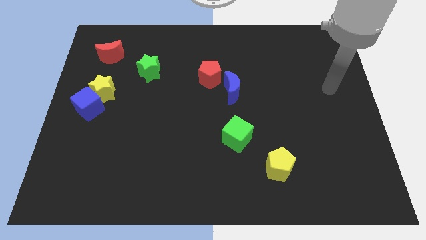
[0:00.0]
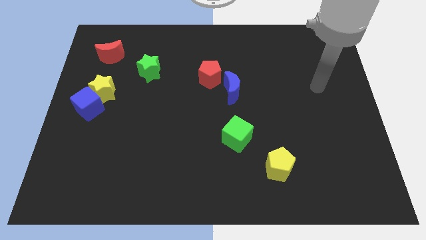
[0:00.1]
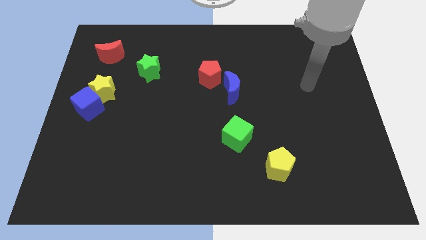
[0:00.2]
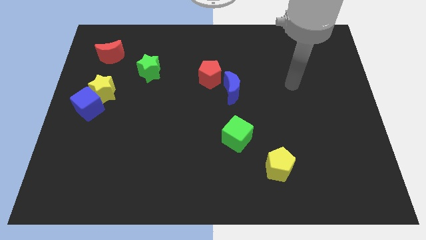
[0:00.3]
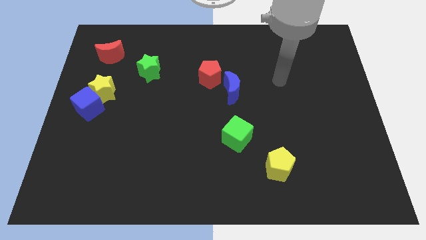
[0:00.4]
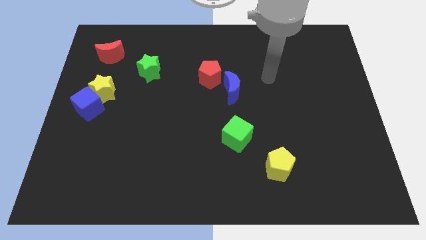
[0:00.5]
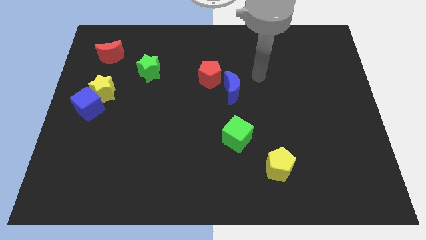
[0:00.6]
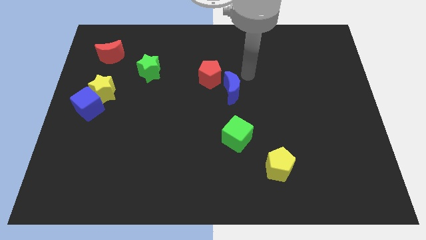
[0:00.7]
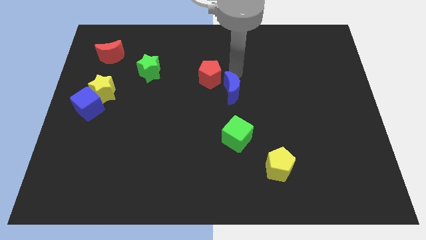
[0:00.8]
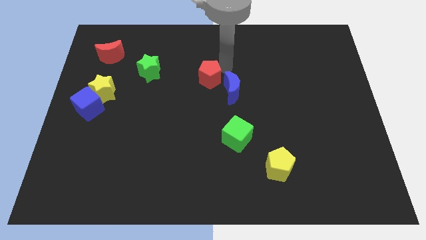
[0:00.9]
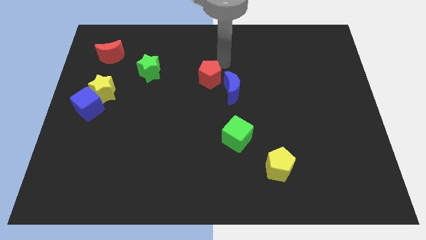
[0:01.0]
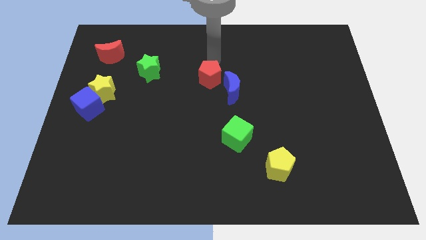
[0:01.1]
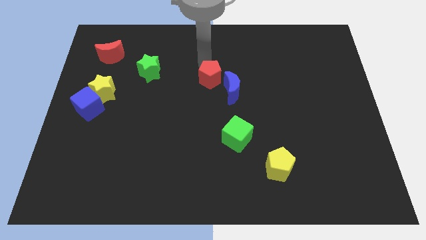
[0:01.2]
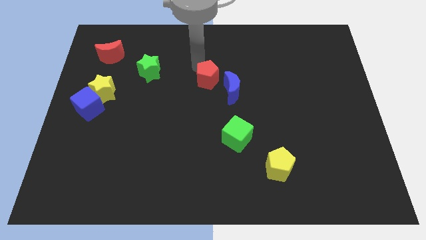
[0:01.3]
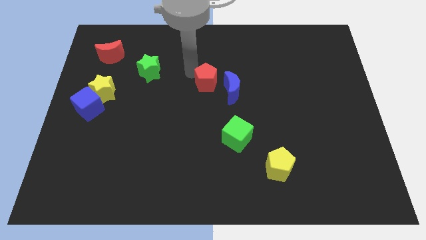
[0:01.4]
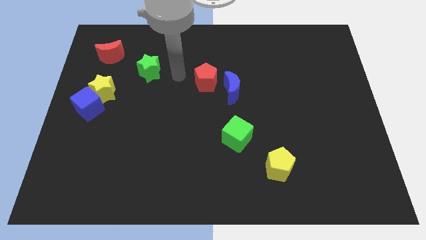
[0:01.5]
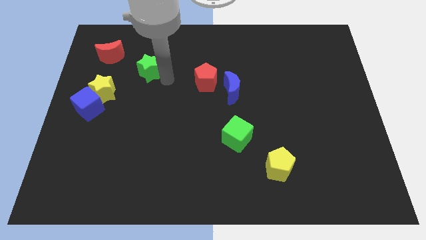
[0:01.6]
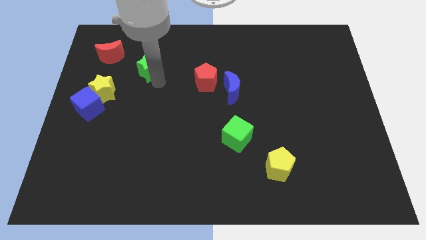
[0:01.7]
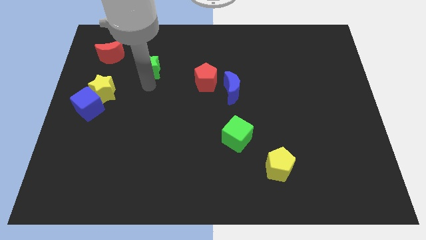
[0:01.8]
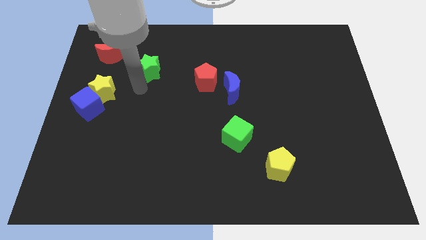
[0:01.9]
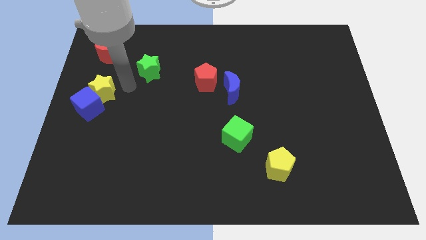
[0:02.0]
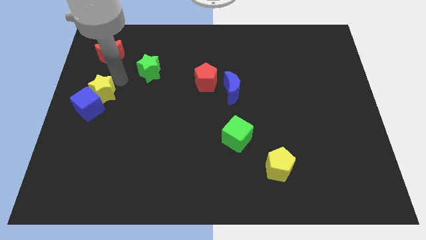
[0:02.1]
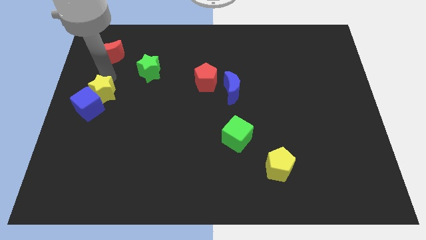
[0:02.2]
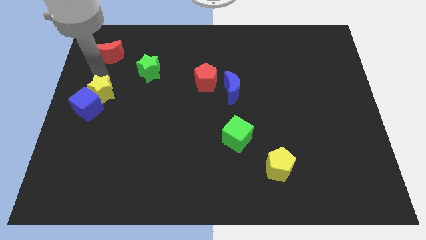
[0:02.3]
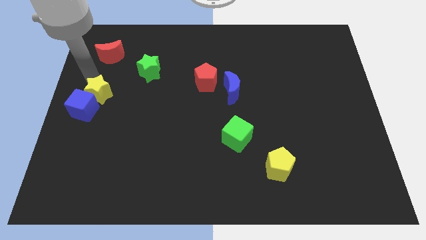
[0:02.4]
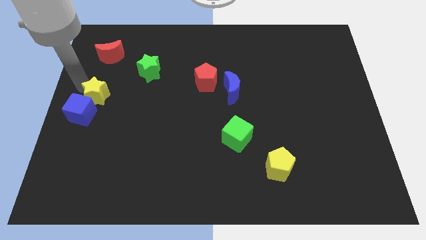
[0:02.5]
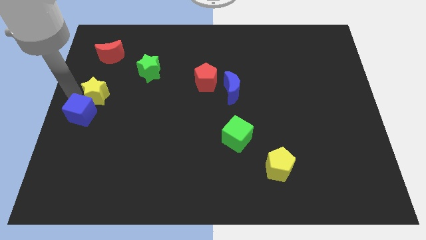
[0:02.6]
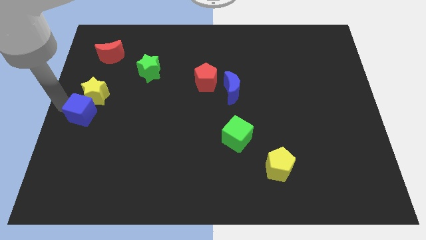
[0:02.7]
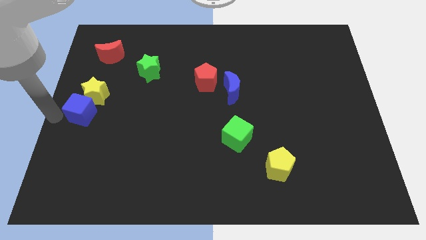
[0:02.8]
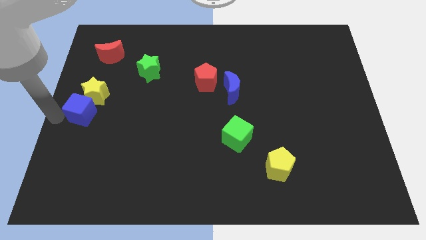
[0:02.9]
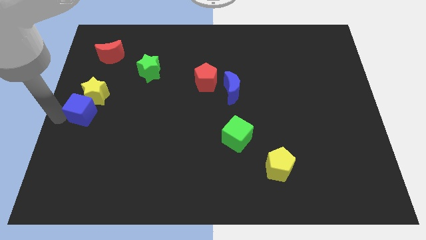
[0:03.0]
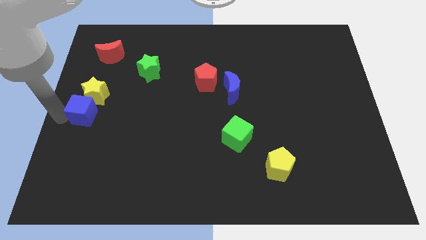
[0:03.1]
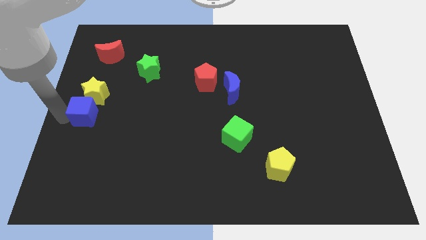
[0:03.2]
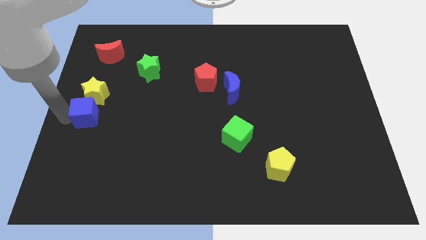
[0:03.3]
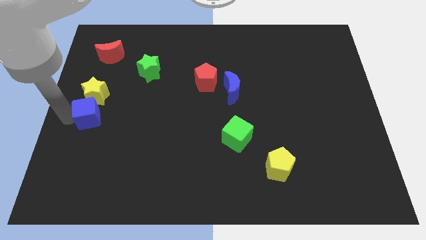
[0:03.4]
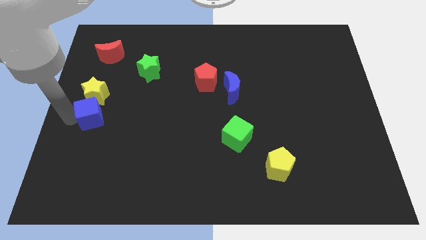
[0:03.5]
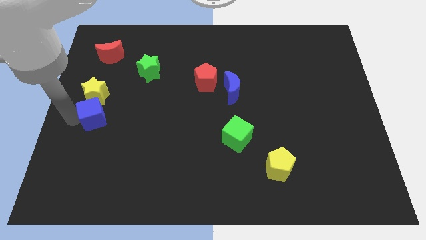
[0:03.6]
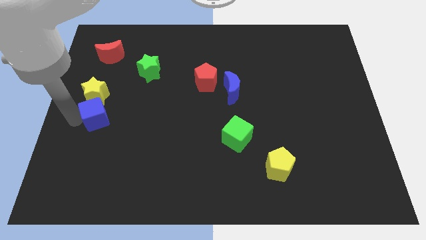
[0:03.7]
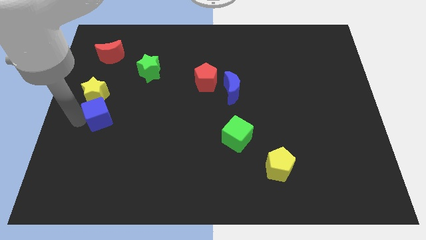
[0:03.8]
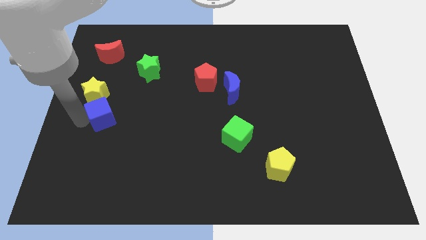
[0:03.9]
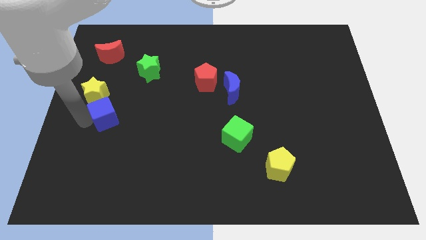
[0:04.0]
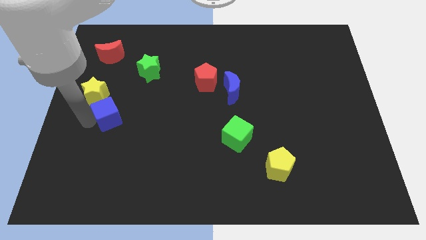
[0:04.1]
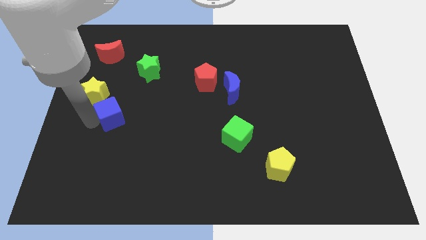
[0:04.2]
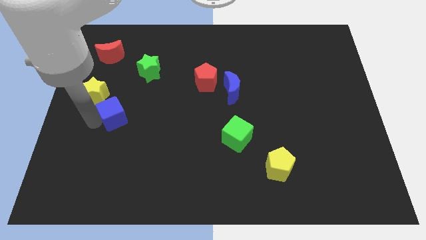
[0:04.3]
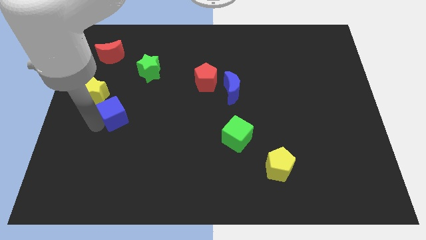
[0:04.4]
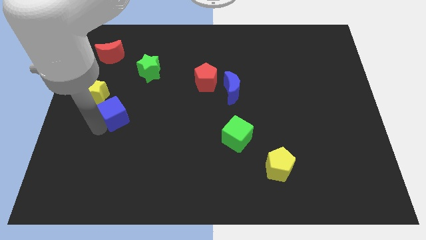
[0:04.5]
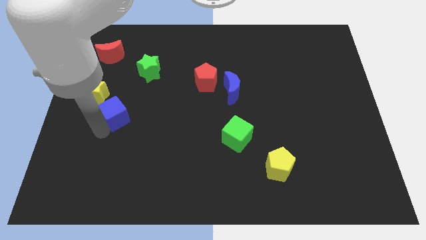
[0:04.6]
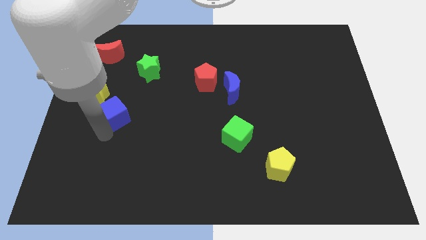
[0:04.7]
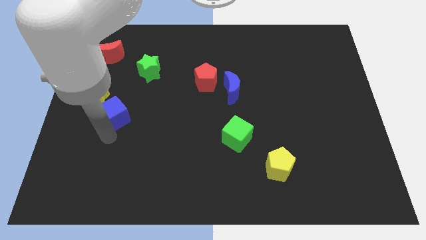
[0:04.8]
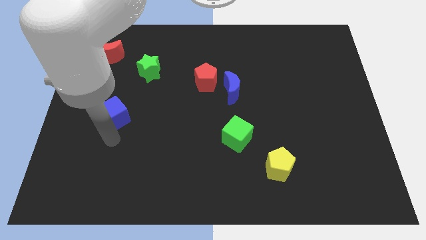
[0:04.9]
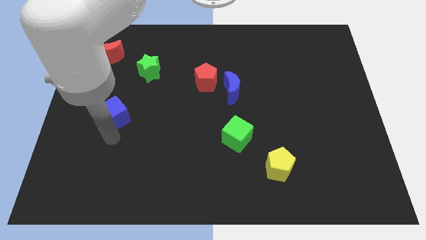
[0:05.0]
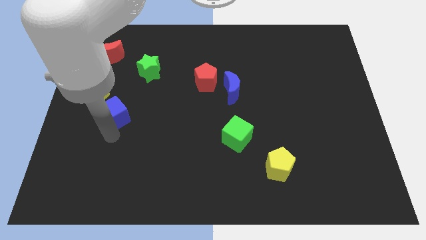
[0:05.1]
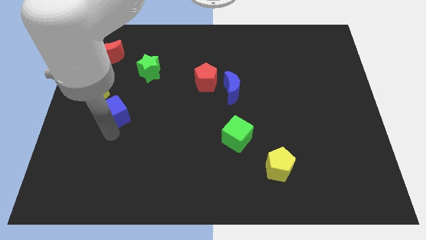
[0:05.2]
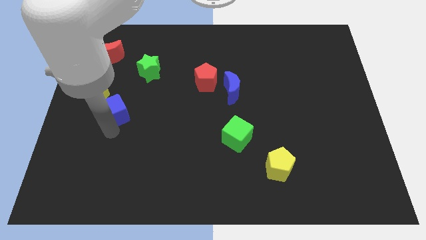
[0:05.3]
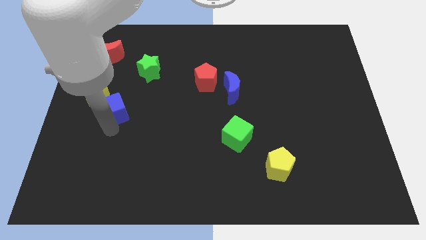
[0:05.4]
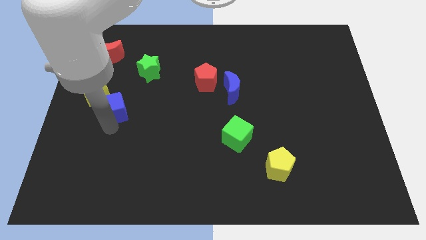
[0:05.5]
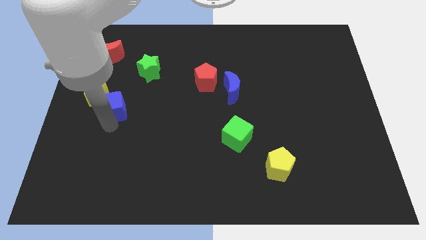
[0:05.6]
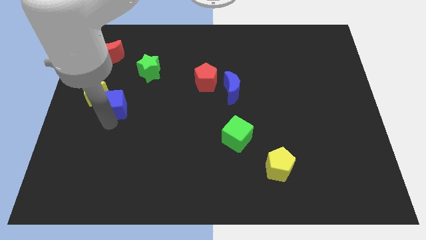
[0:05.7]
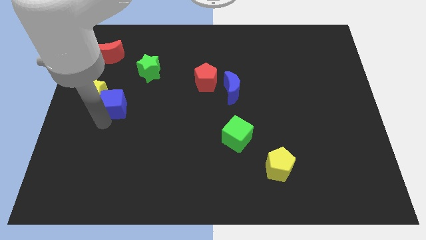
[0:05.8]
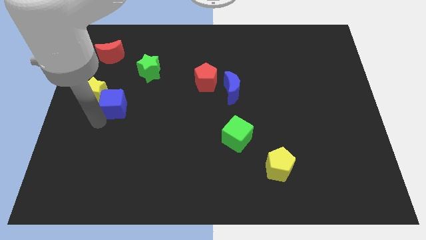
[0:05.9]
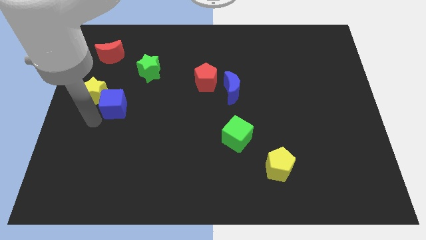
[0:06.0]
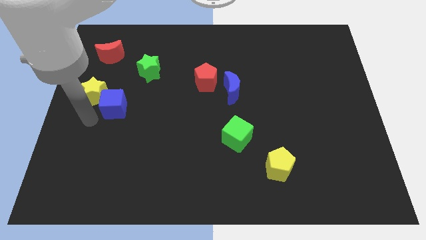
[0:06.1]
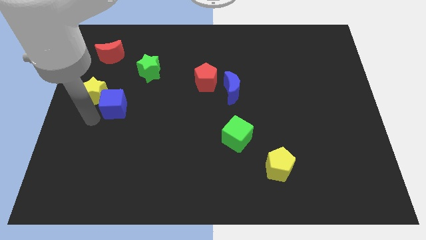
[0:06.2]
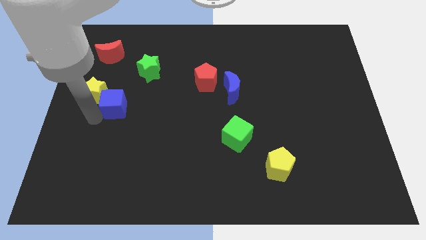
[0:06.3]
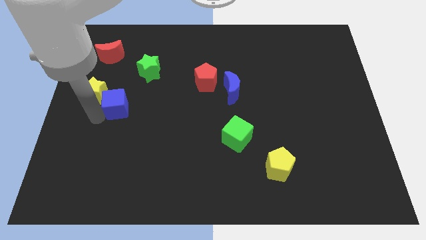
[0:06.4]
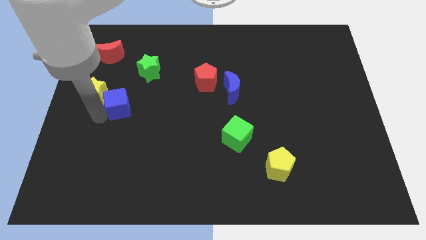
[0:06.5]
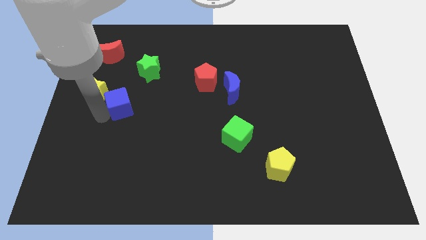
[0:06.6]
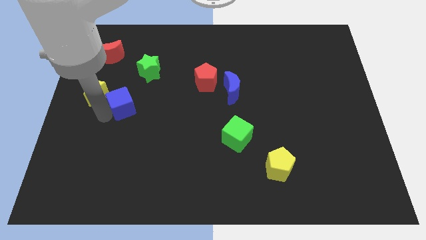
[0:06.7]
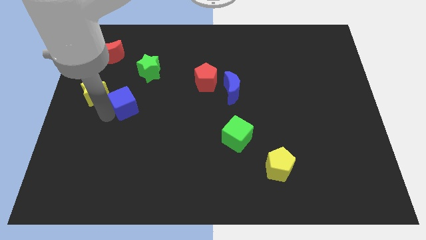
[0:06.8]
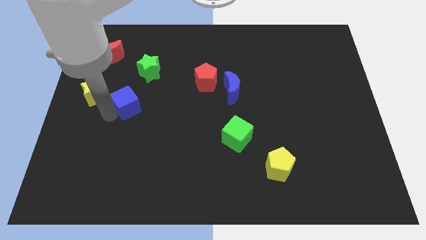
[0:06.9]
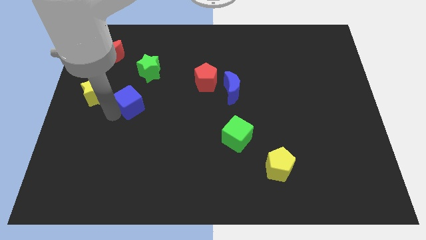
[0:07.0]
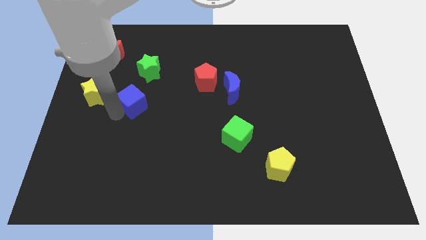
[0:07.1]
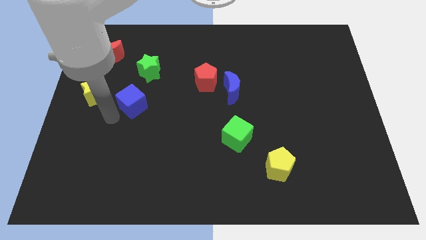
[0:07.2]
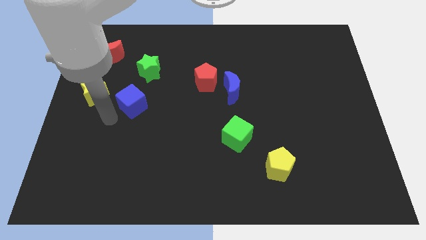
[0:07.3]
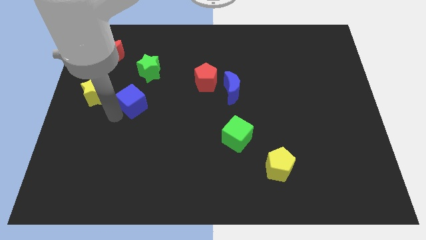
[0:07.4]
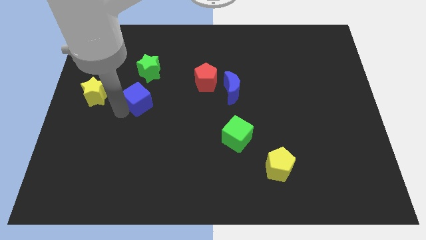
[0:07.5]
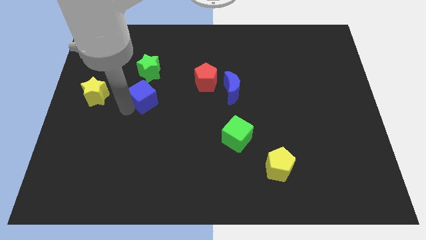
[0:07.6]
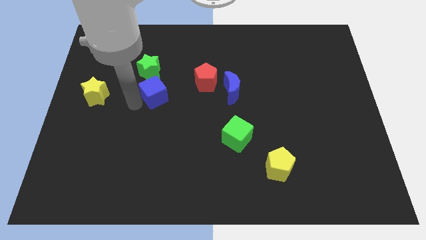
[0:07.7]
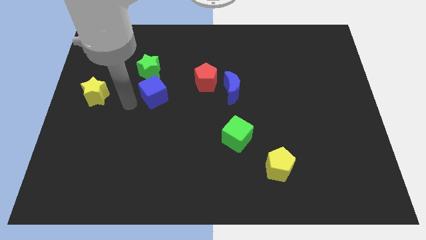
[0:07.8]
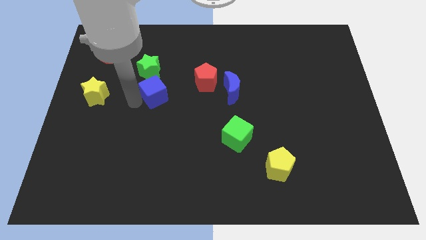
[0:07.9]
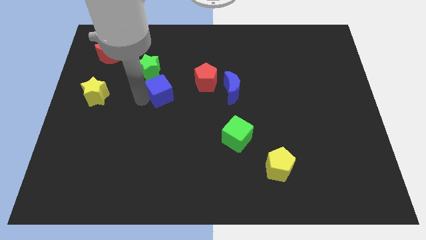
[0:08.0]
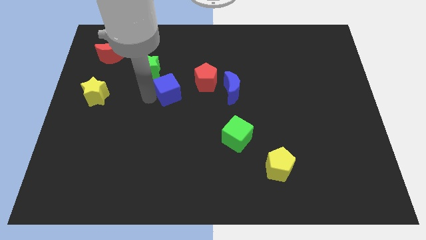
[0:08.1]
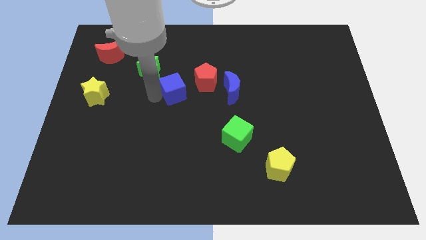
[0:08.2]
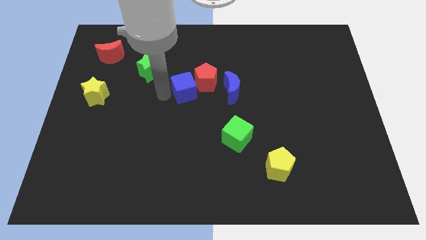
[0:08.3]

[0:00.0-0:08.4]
put the blue cube next to the red pentagon
